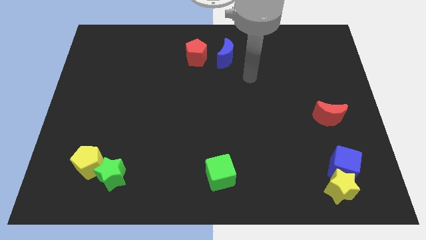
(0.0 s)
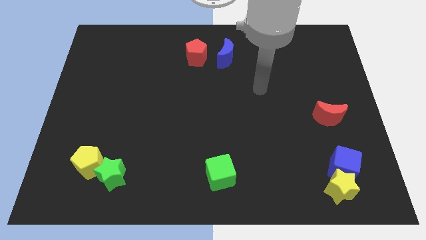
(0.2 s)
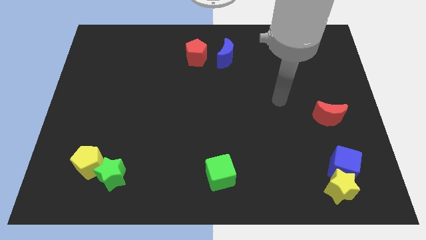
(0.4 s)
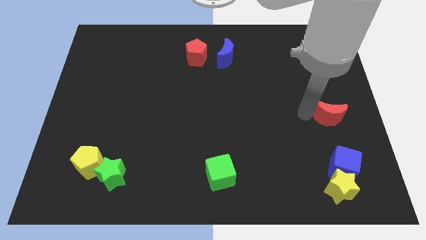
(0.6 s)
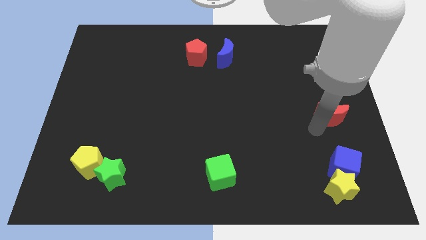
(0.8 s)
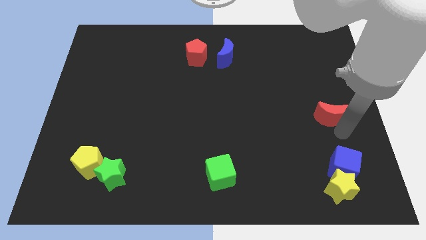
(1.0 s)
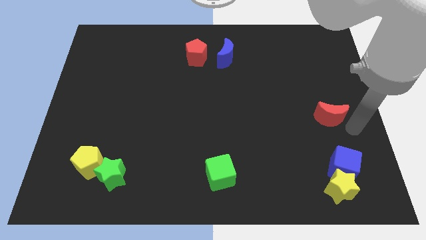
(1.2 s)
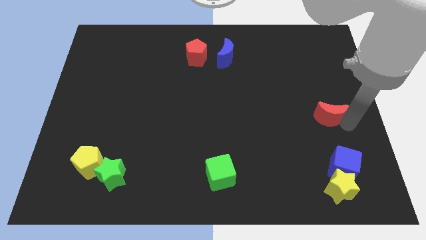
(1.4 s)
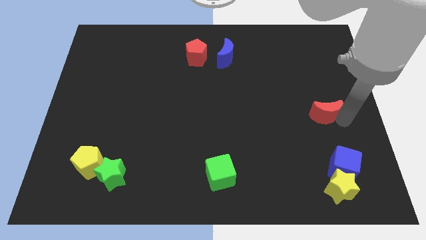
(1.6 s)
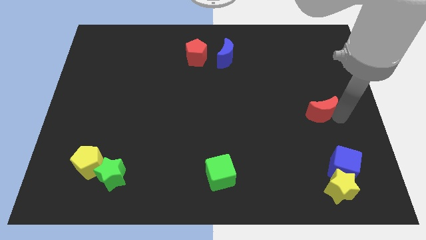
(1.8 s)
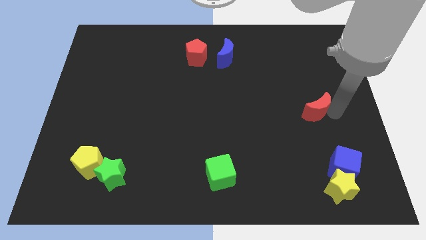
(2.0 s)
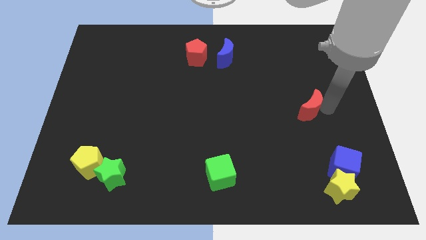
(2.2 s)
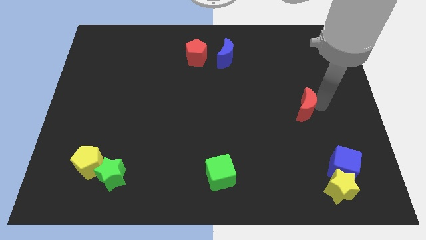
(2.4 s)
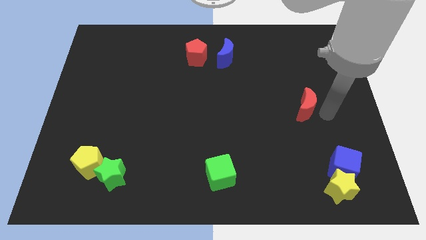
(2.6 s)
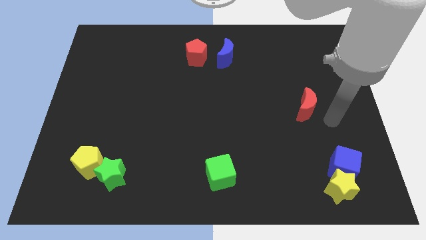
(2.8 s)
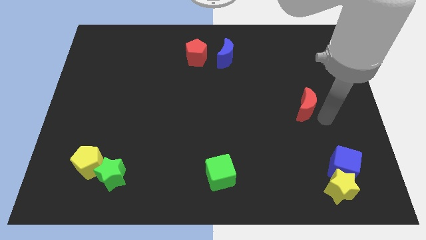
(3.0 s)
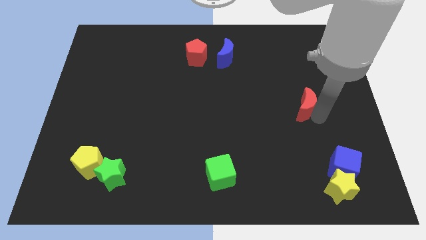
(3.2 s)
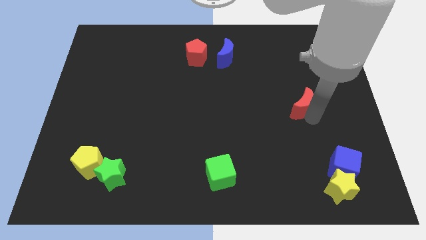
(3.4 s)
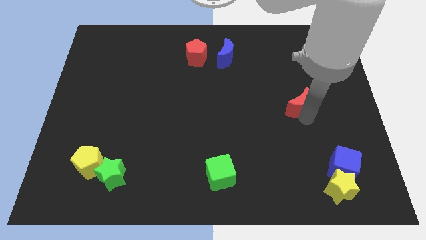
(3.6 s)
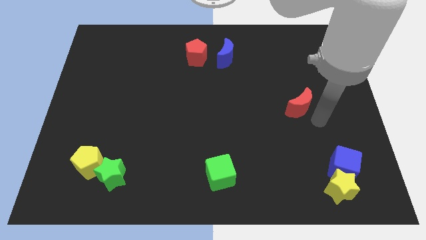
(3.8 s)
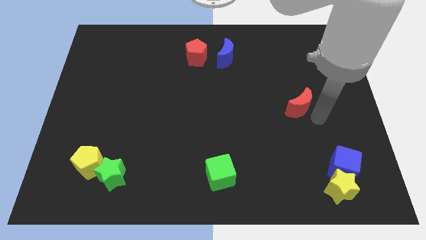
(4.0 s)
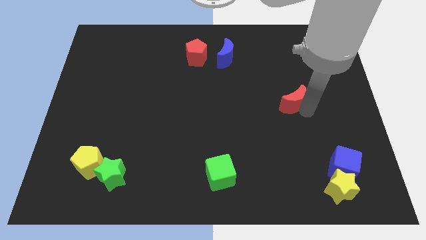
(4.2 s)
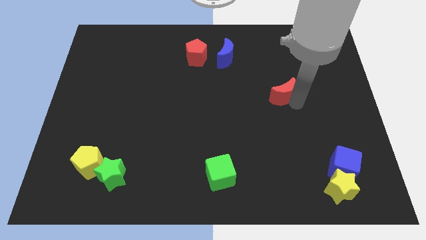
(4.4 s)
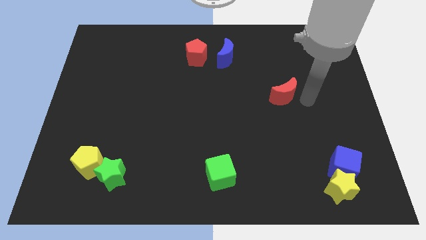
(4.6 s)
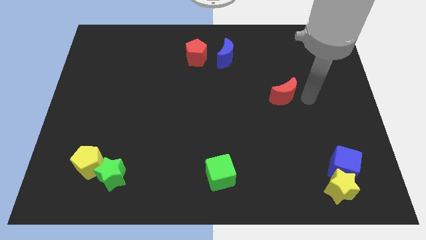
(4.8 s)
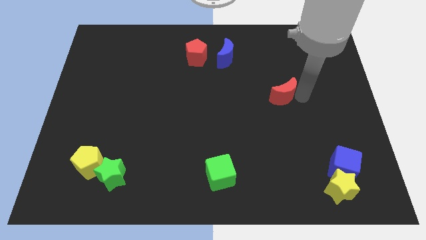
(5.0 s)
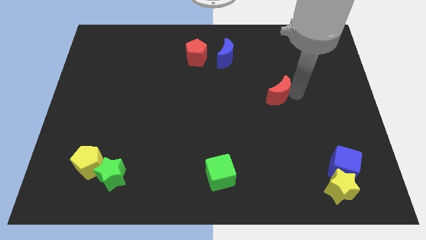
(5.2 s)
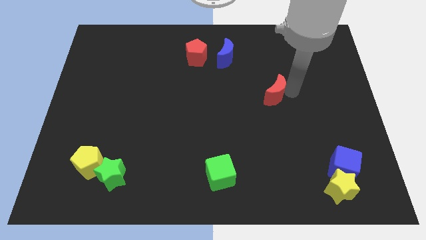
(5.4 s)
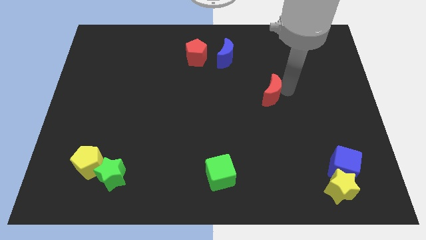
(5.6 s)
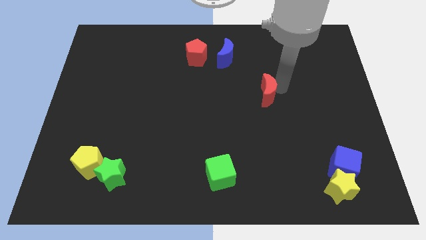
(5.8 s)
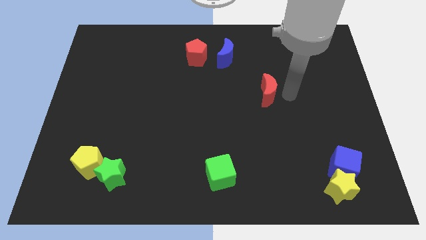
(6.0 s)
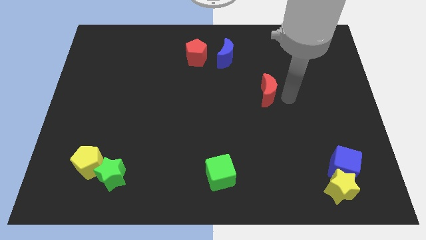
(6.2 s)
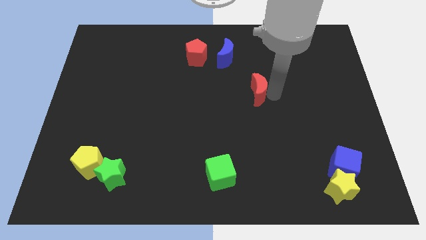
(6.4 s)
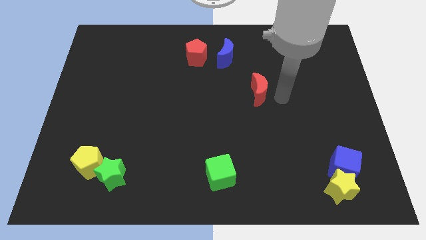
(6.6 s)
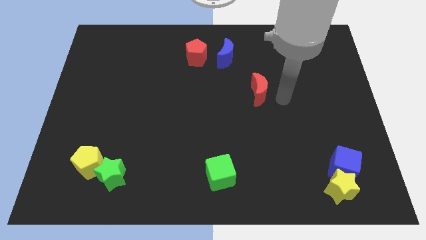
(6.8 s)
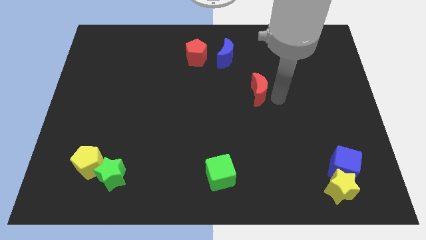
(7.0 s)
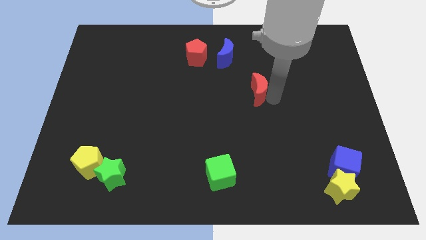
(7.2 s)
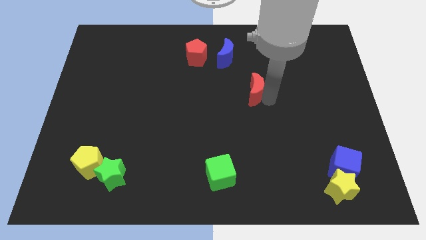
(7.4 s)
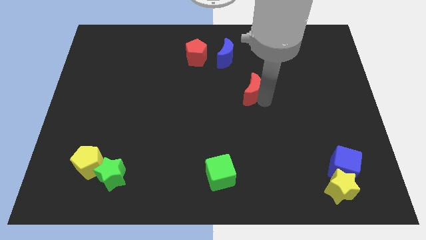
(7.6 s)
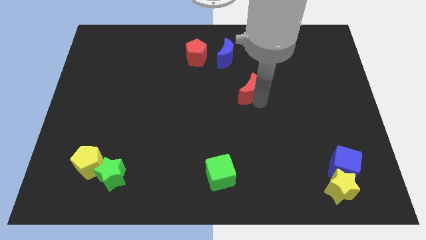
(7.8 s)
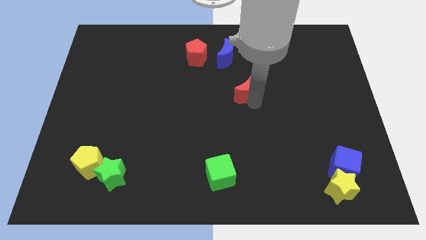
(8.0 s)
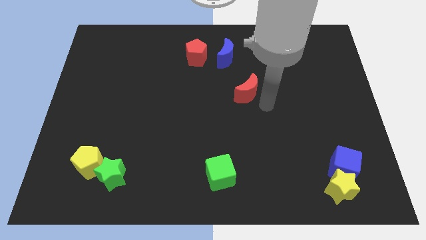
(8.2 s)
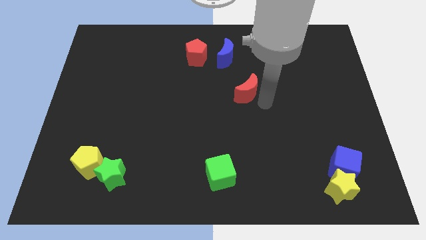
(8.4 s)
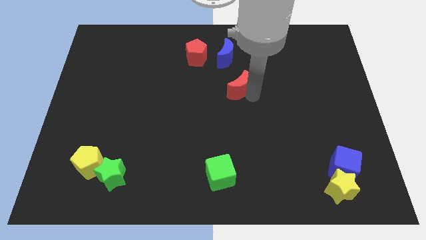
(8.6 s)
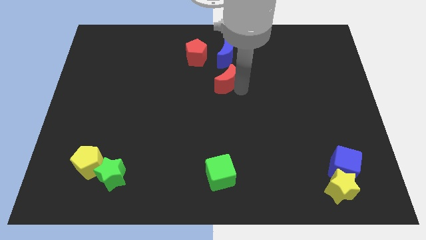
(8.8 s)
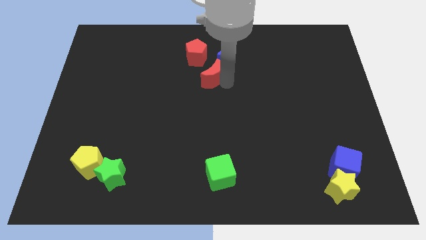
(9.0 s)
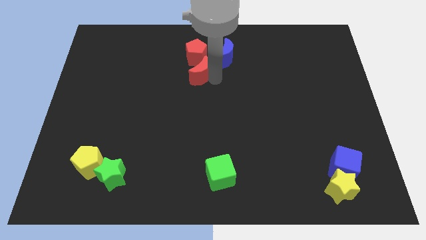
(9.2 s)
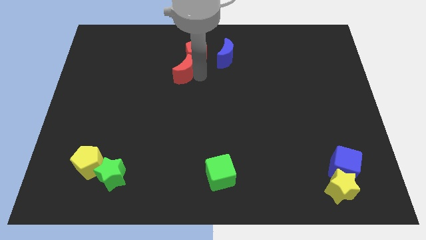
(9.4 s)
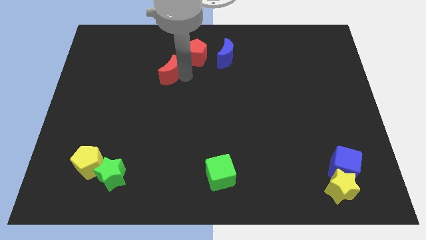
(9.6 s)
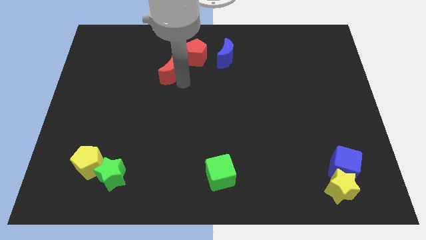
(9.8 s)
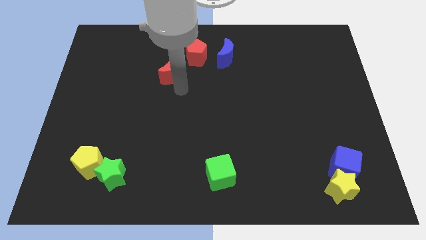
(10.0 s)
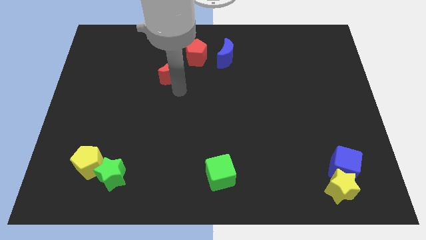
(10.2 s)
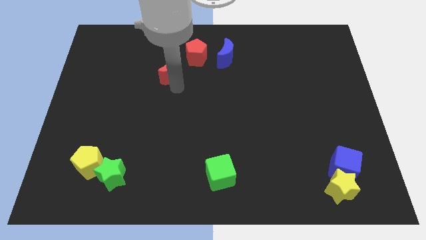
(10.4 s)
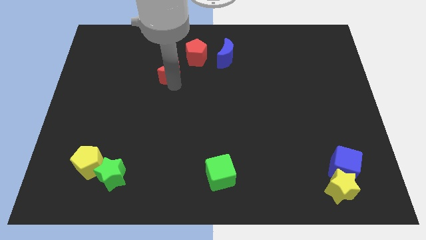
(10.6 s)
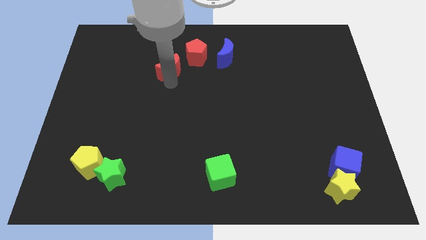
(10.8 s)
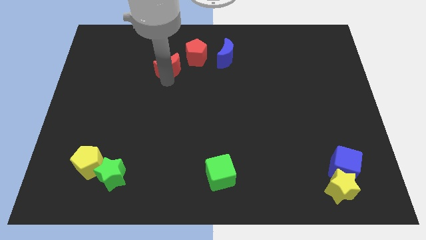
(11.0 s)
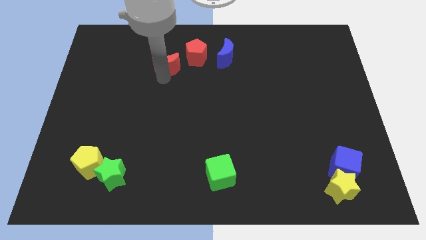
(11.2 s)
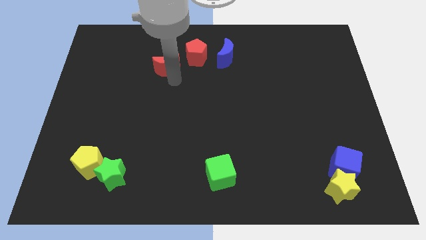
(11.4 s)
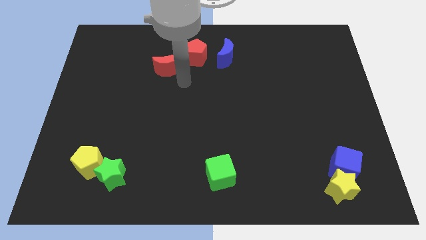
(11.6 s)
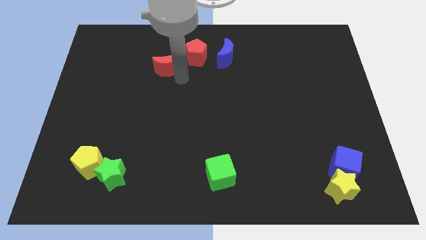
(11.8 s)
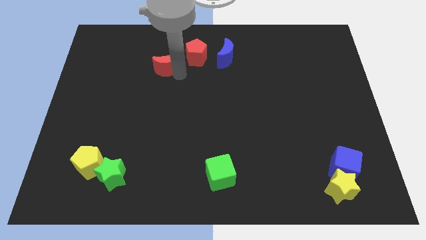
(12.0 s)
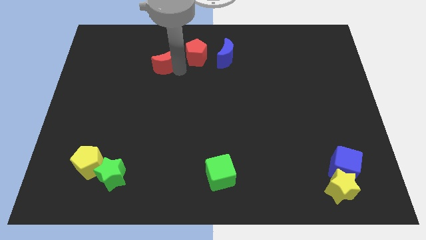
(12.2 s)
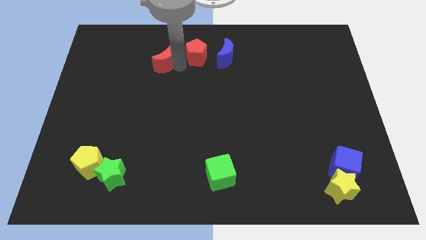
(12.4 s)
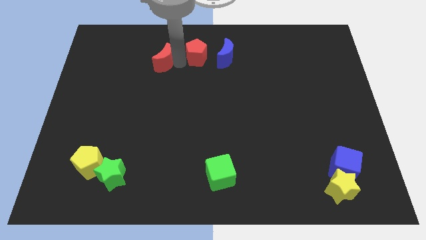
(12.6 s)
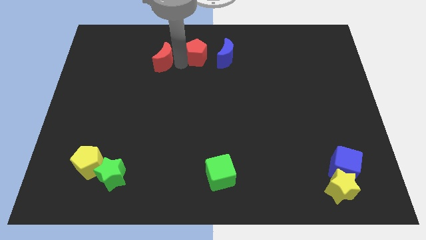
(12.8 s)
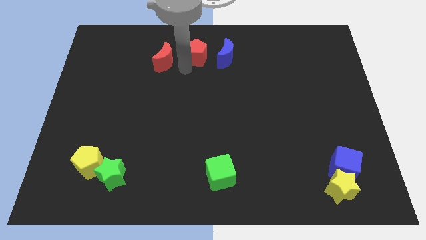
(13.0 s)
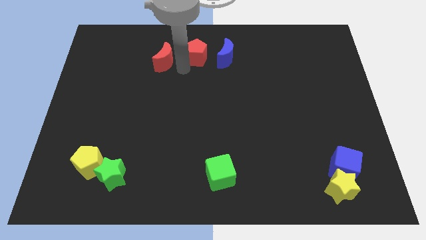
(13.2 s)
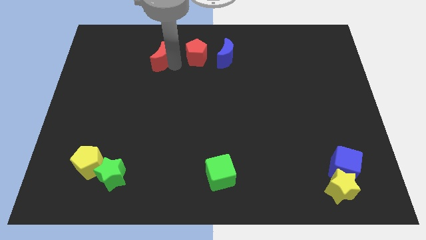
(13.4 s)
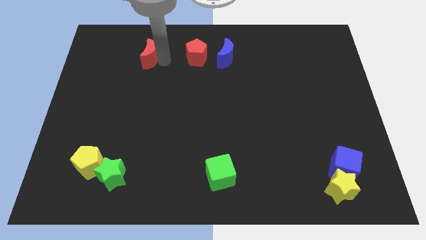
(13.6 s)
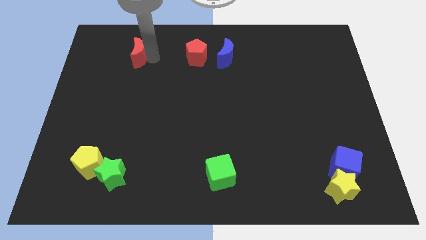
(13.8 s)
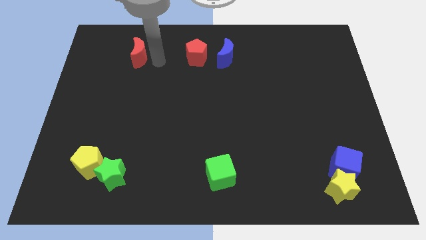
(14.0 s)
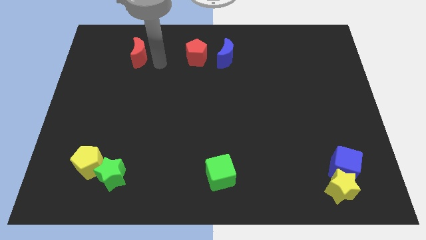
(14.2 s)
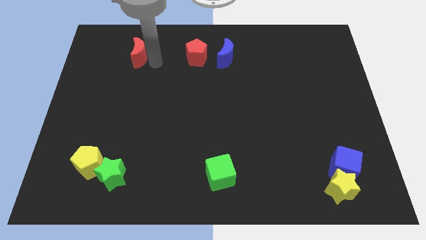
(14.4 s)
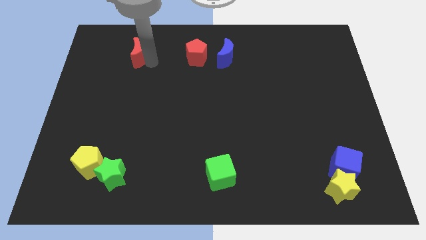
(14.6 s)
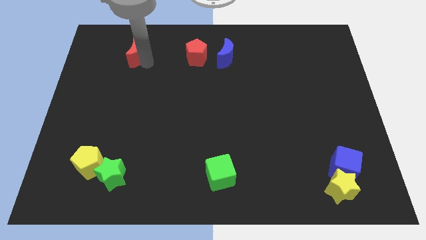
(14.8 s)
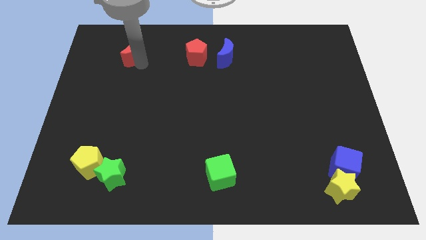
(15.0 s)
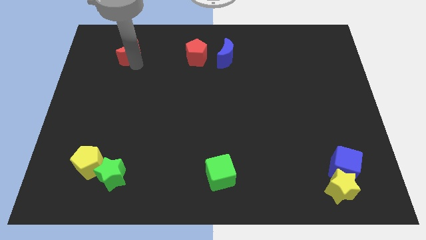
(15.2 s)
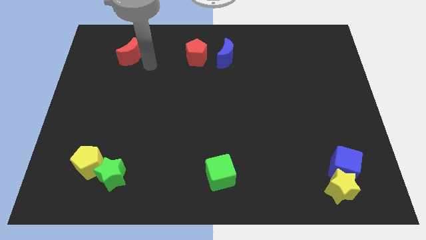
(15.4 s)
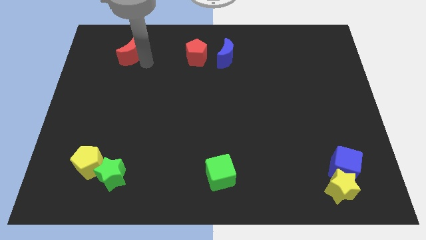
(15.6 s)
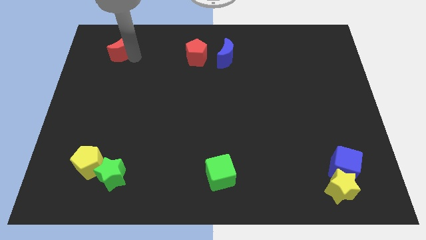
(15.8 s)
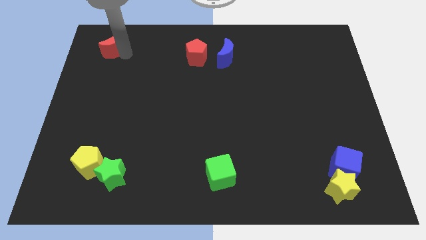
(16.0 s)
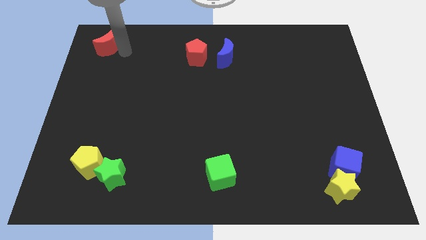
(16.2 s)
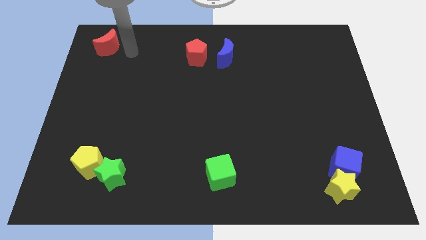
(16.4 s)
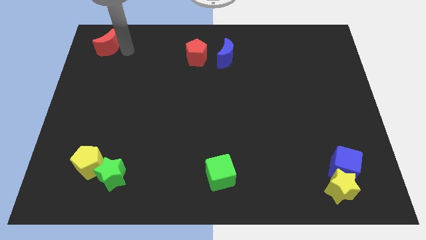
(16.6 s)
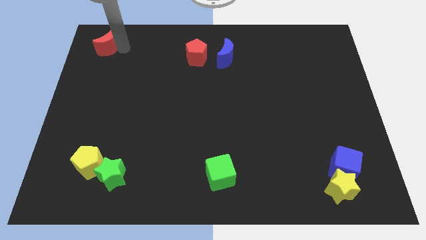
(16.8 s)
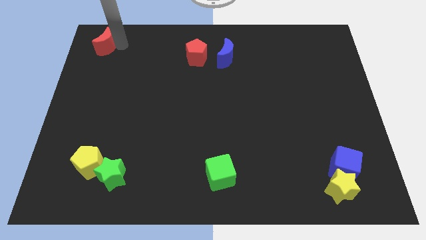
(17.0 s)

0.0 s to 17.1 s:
put the red moon to the upper left corner
